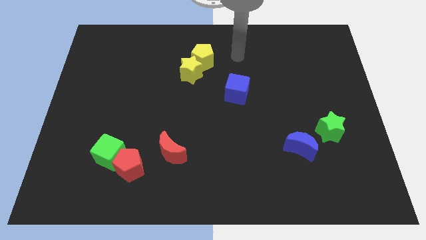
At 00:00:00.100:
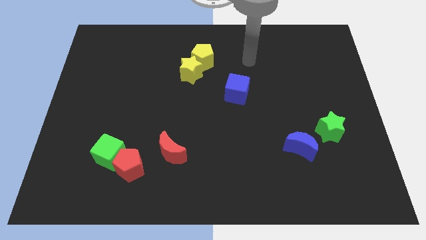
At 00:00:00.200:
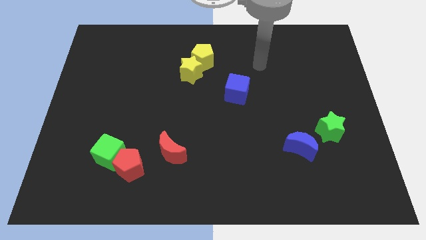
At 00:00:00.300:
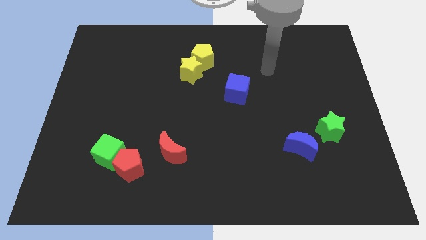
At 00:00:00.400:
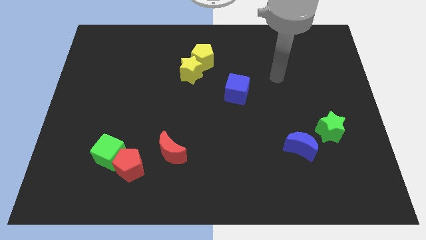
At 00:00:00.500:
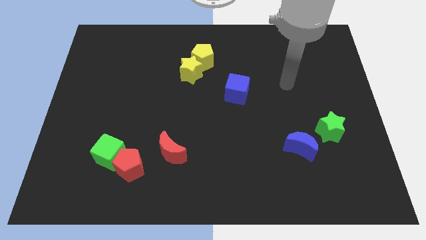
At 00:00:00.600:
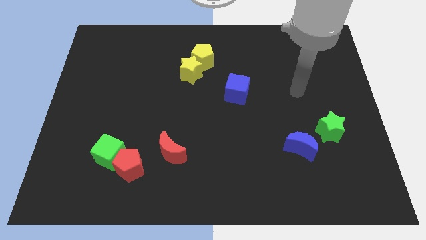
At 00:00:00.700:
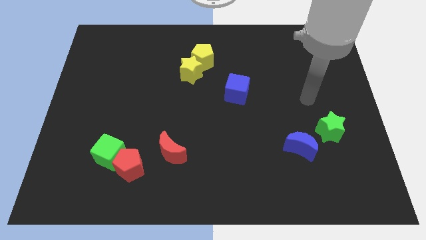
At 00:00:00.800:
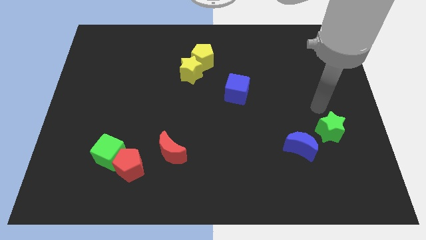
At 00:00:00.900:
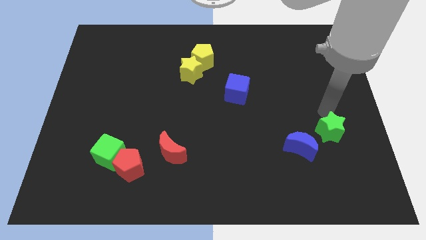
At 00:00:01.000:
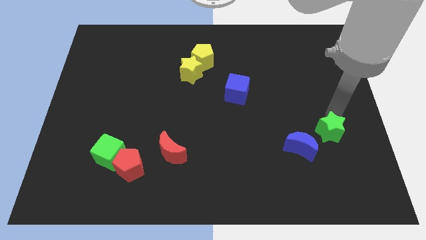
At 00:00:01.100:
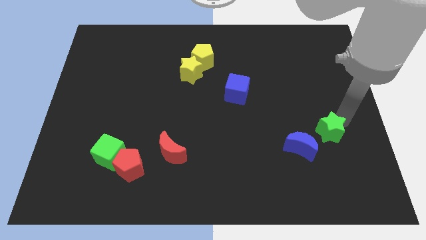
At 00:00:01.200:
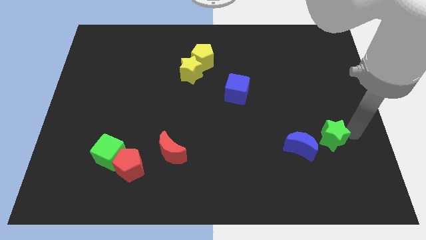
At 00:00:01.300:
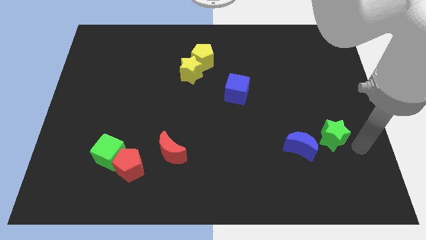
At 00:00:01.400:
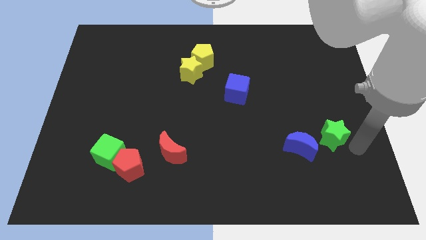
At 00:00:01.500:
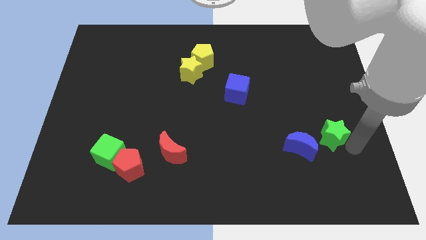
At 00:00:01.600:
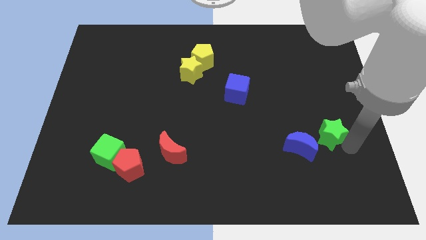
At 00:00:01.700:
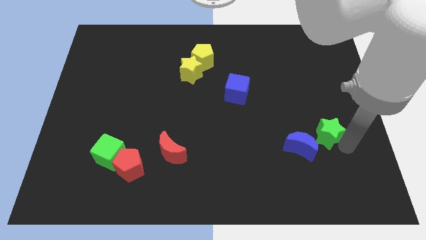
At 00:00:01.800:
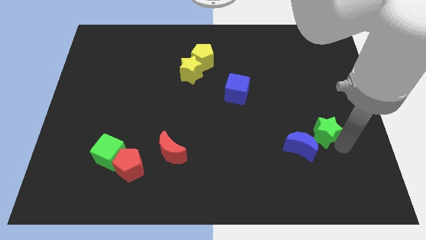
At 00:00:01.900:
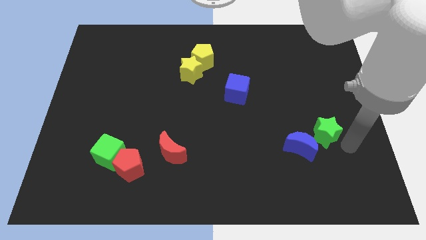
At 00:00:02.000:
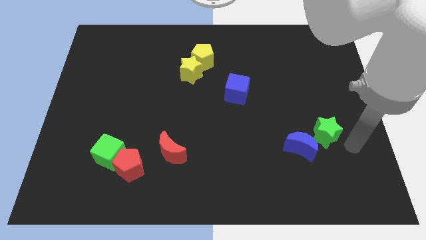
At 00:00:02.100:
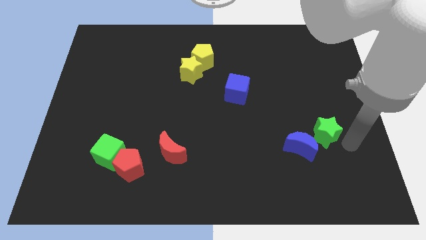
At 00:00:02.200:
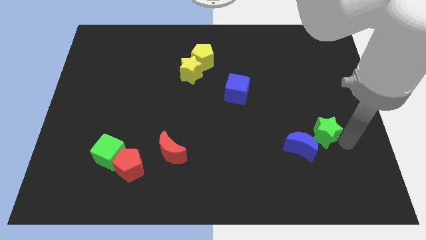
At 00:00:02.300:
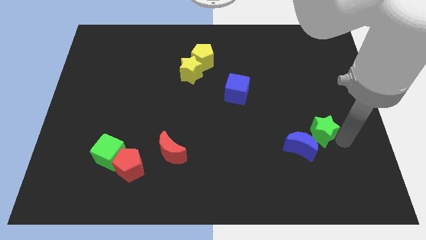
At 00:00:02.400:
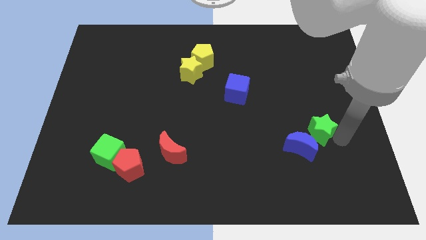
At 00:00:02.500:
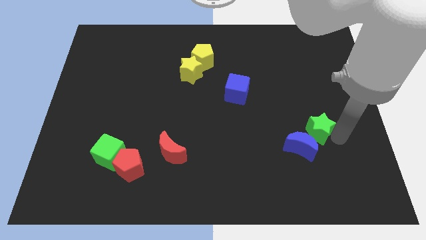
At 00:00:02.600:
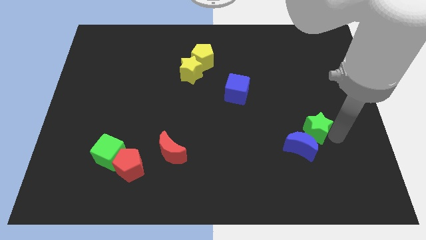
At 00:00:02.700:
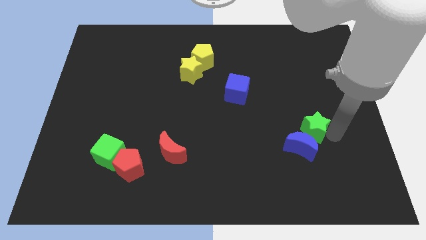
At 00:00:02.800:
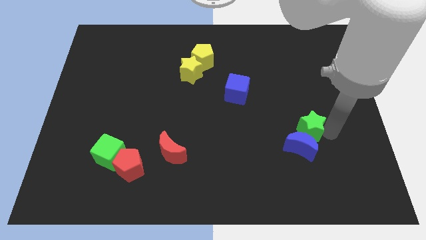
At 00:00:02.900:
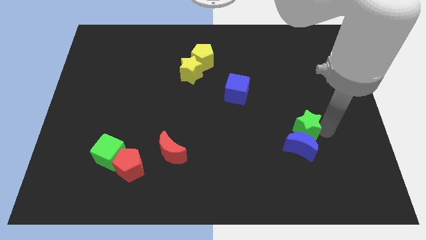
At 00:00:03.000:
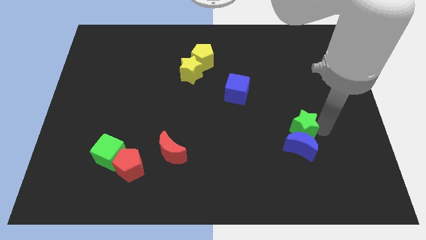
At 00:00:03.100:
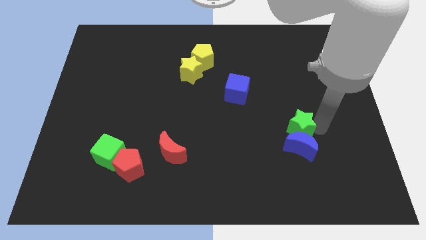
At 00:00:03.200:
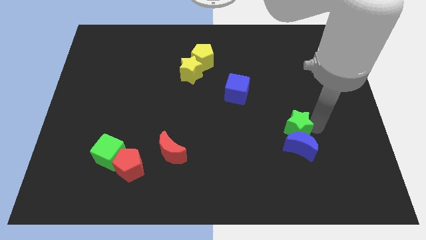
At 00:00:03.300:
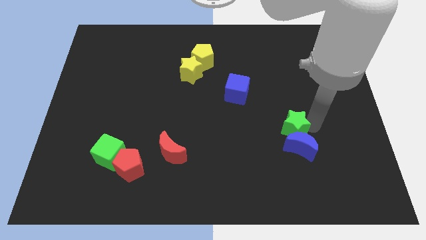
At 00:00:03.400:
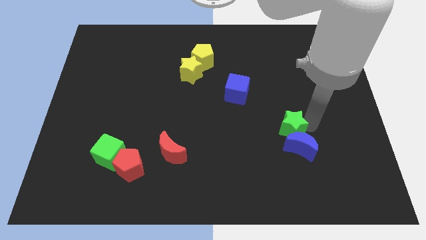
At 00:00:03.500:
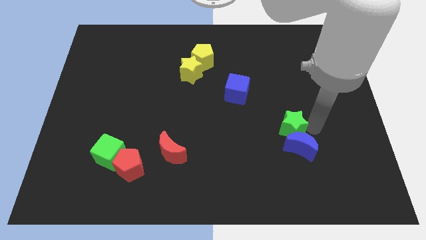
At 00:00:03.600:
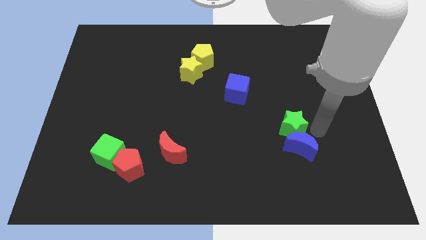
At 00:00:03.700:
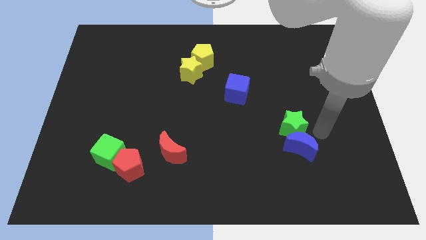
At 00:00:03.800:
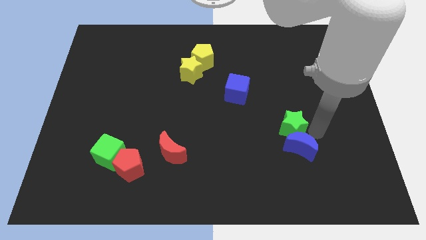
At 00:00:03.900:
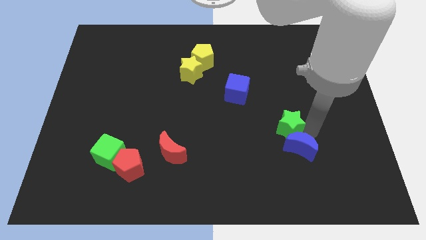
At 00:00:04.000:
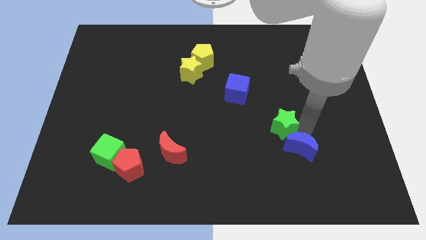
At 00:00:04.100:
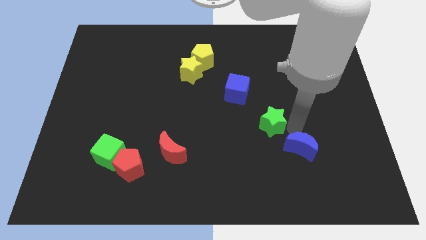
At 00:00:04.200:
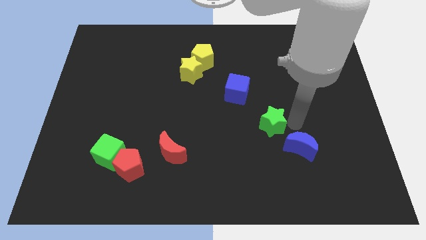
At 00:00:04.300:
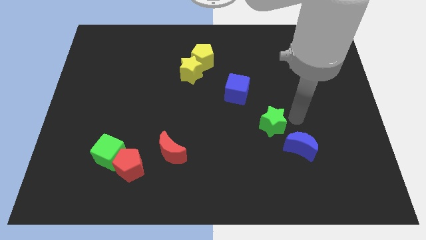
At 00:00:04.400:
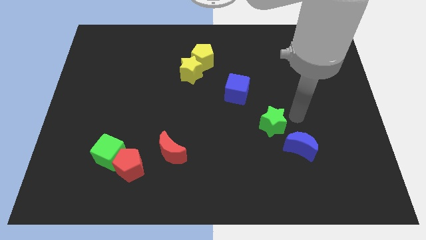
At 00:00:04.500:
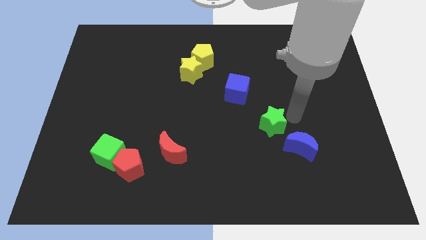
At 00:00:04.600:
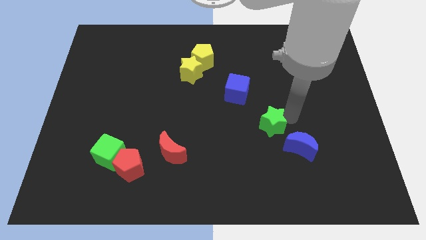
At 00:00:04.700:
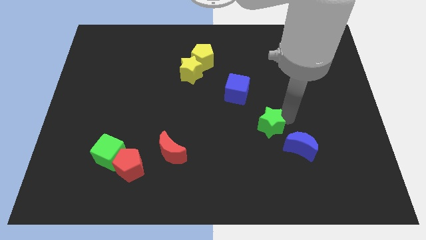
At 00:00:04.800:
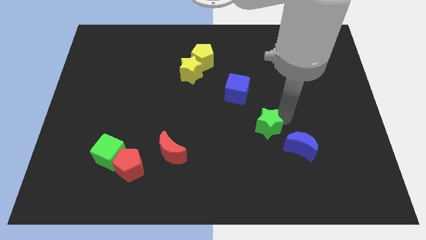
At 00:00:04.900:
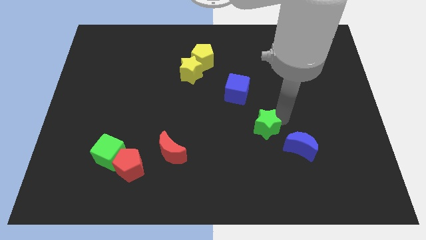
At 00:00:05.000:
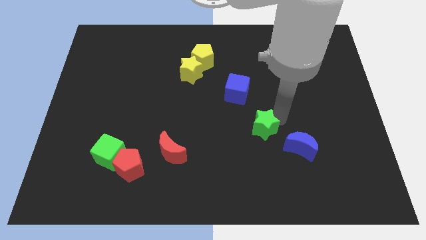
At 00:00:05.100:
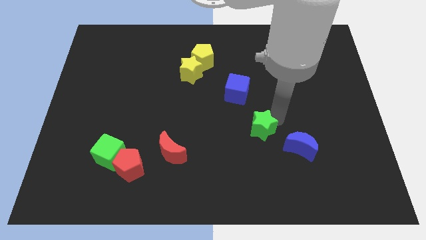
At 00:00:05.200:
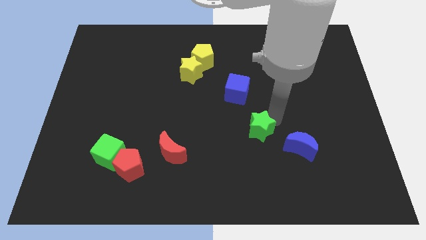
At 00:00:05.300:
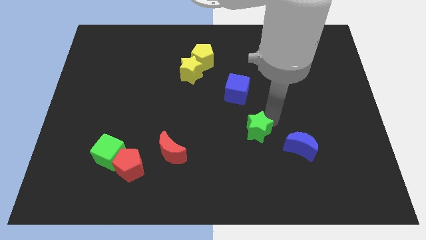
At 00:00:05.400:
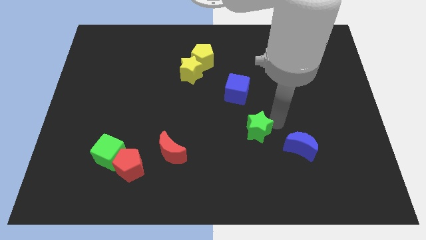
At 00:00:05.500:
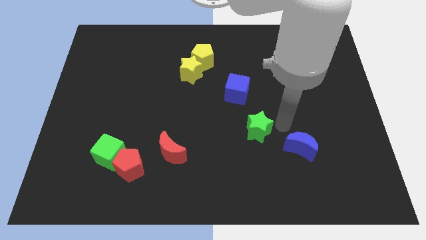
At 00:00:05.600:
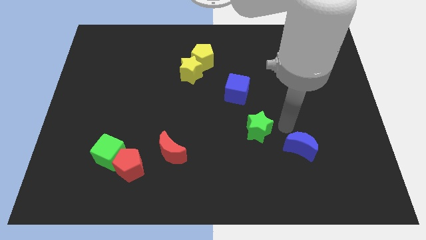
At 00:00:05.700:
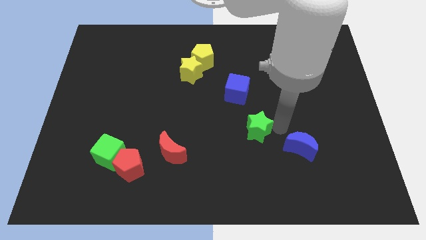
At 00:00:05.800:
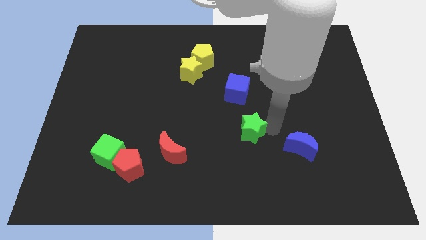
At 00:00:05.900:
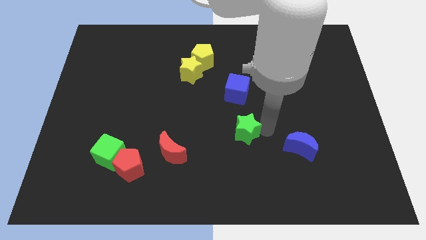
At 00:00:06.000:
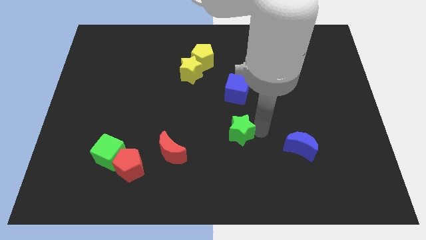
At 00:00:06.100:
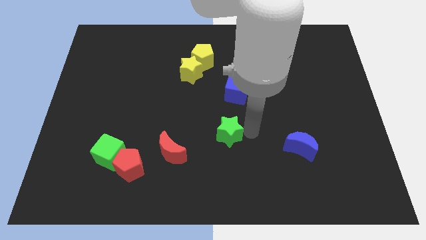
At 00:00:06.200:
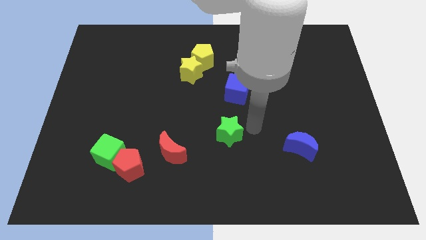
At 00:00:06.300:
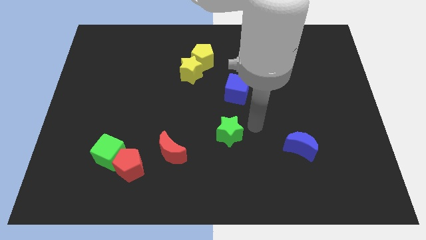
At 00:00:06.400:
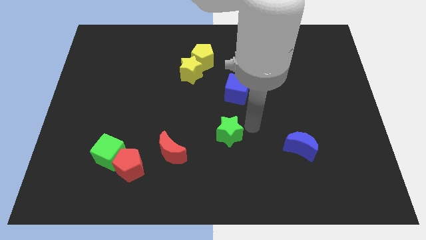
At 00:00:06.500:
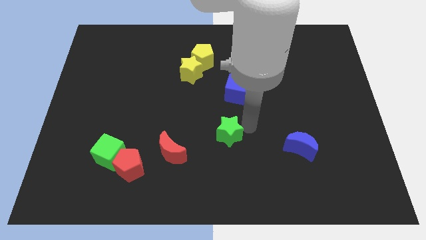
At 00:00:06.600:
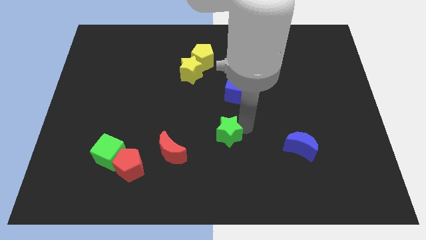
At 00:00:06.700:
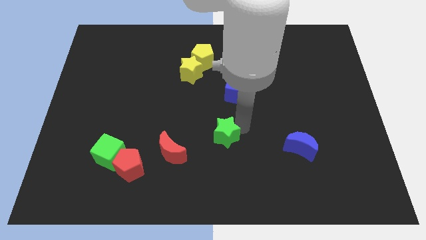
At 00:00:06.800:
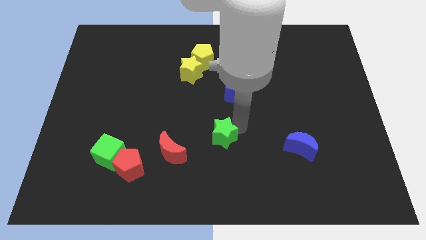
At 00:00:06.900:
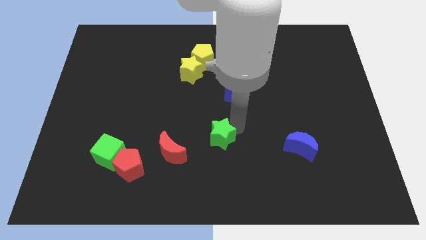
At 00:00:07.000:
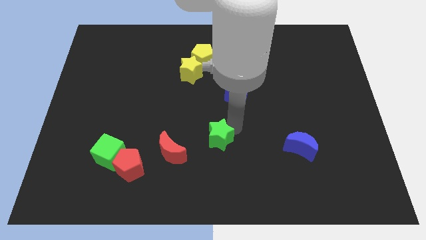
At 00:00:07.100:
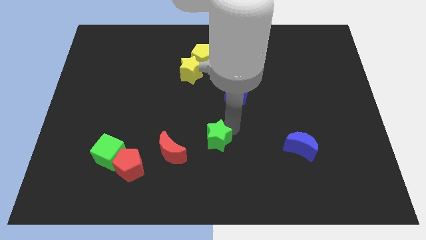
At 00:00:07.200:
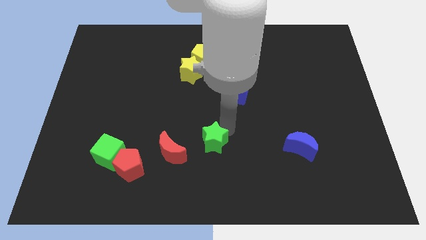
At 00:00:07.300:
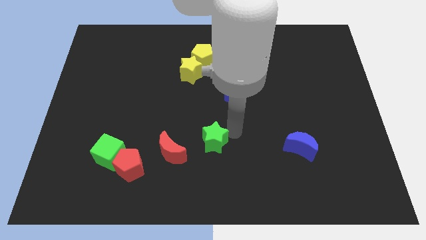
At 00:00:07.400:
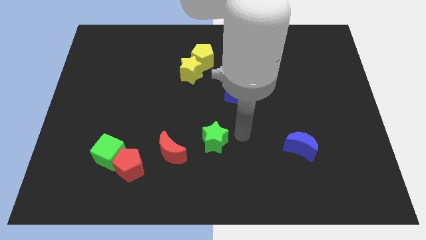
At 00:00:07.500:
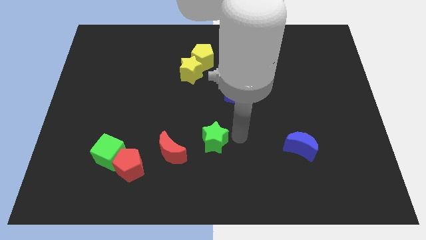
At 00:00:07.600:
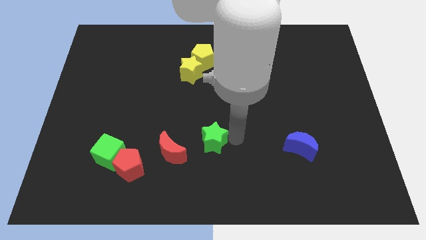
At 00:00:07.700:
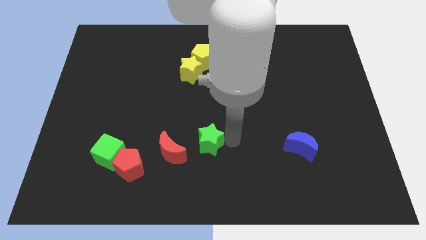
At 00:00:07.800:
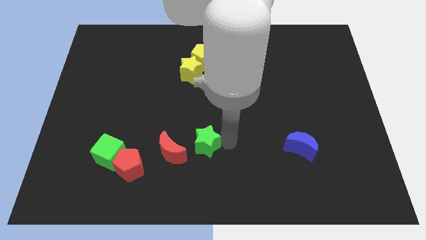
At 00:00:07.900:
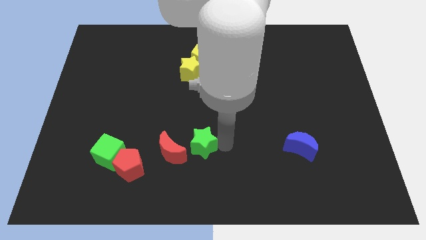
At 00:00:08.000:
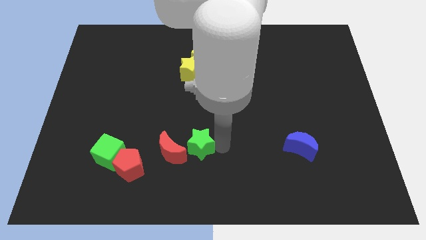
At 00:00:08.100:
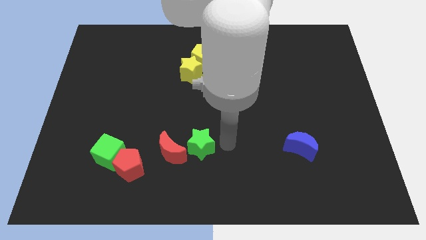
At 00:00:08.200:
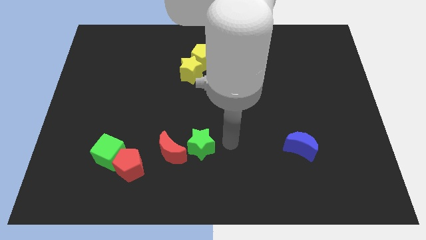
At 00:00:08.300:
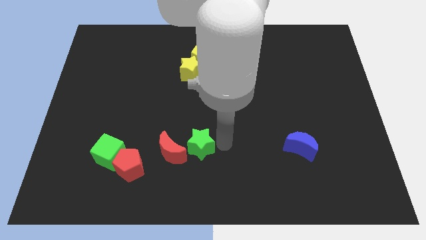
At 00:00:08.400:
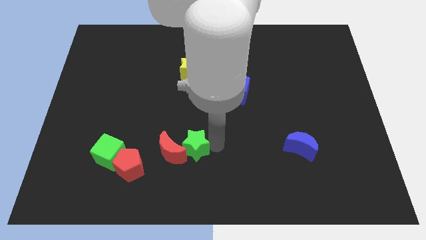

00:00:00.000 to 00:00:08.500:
push the green star close to the red moon
